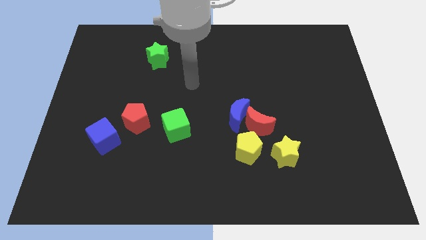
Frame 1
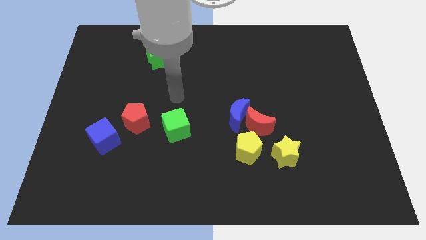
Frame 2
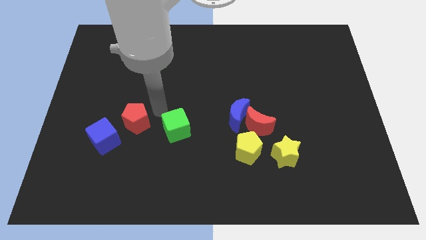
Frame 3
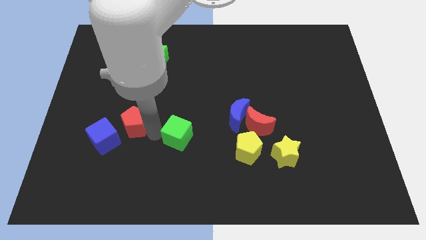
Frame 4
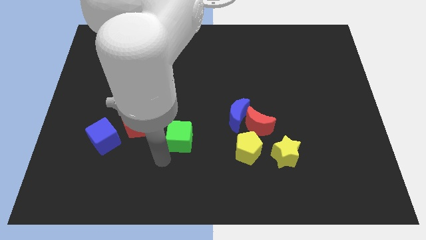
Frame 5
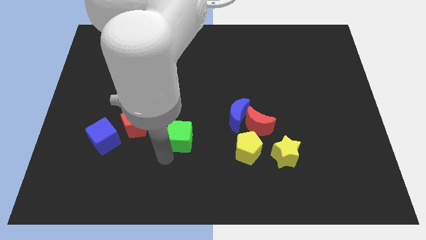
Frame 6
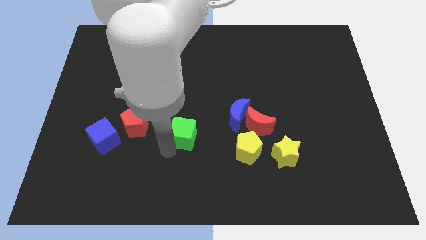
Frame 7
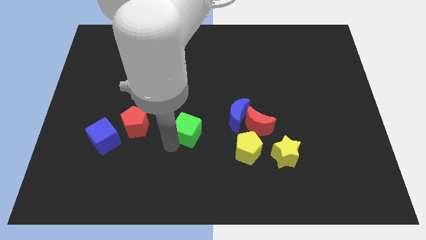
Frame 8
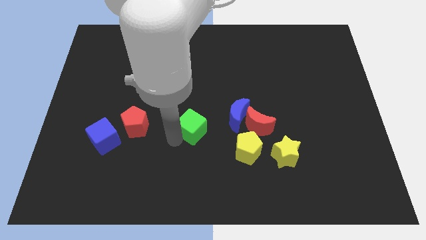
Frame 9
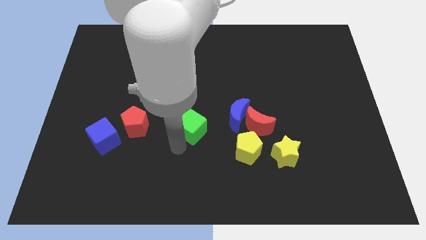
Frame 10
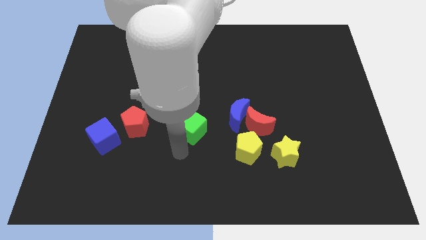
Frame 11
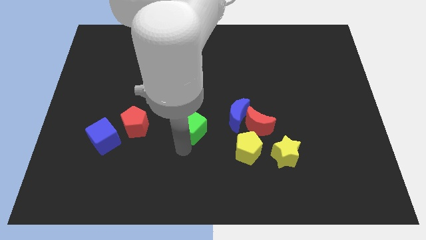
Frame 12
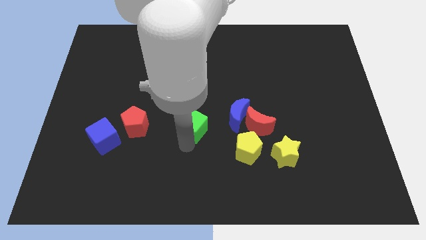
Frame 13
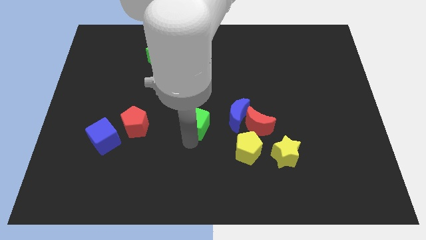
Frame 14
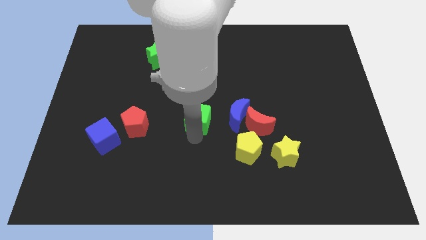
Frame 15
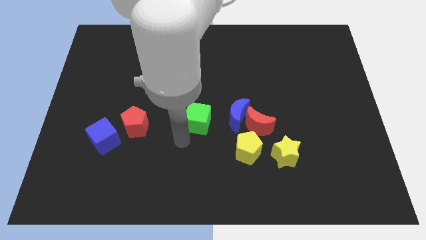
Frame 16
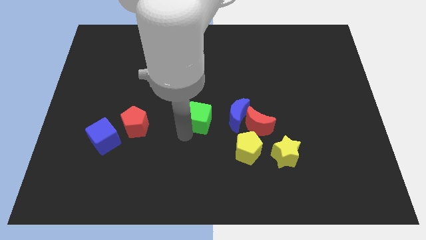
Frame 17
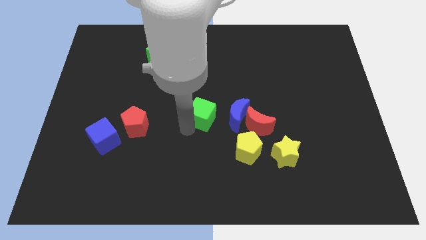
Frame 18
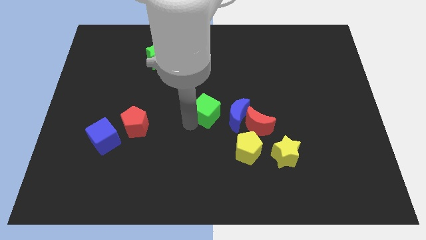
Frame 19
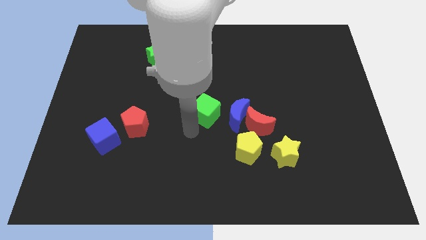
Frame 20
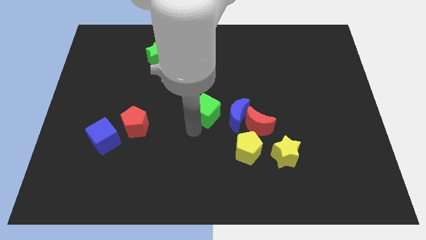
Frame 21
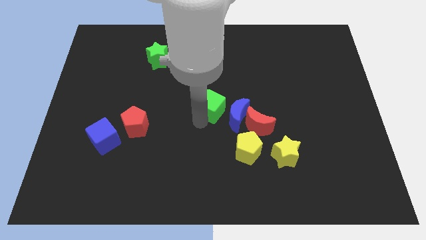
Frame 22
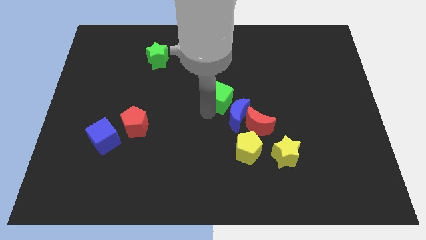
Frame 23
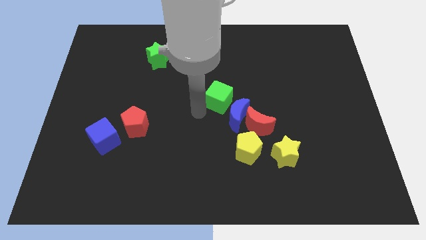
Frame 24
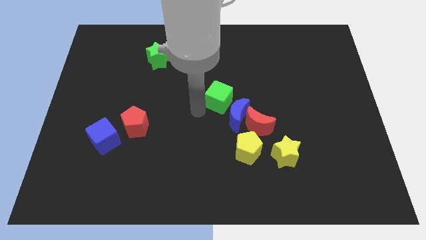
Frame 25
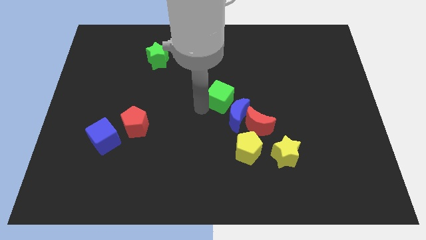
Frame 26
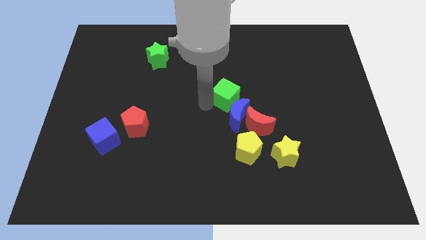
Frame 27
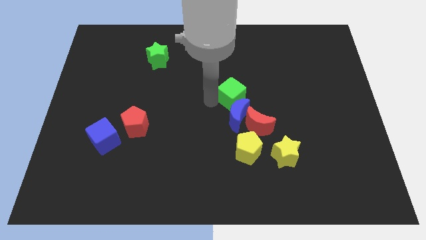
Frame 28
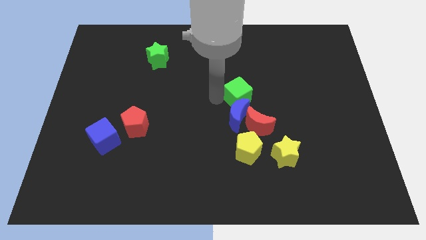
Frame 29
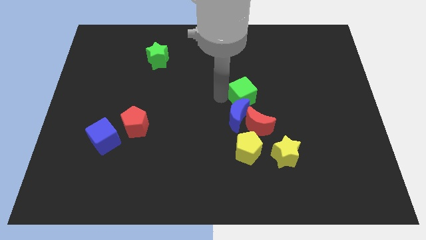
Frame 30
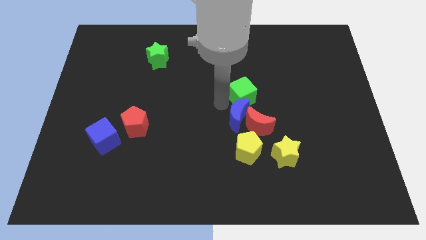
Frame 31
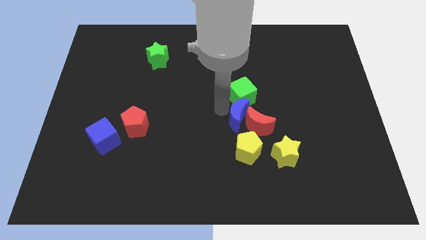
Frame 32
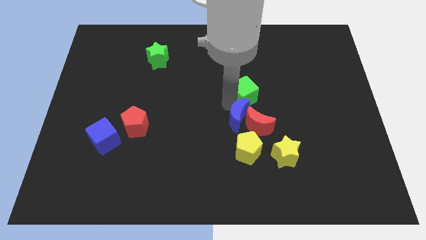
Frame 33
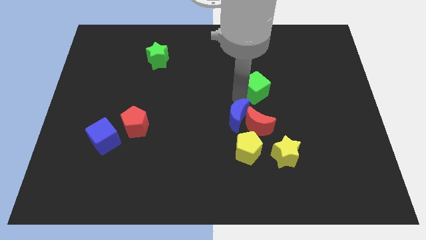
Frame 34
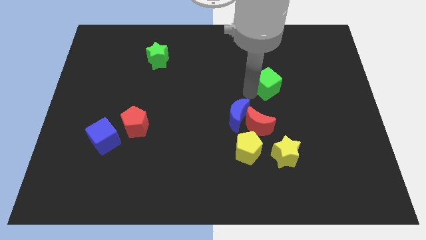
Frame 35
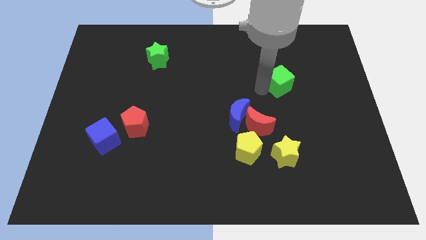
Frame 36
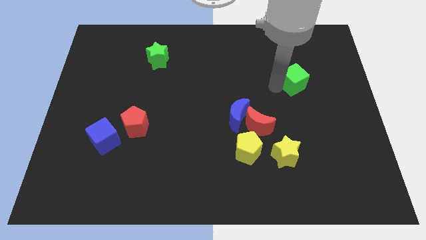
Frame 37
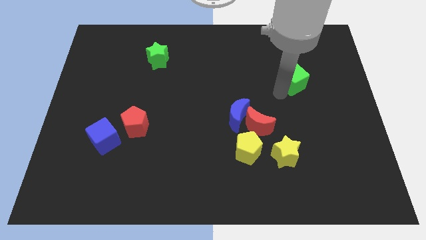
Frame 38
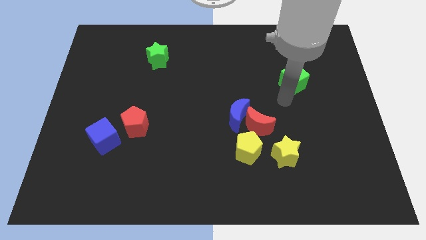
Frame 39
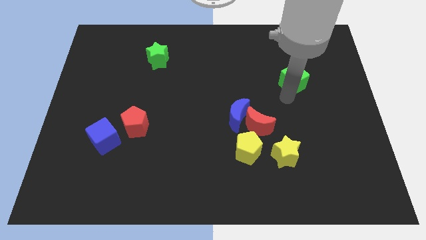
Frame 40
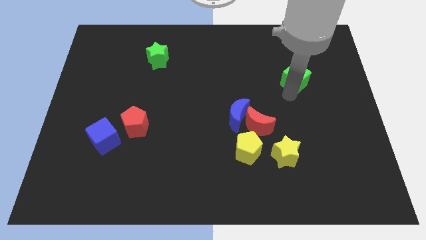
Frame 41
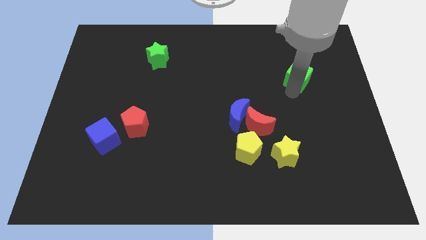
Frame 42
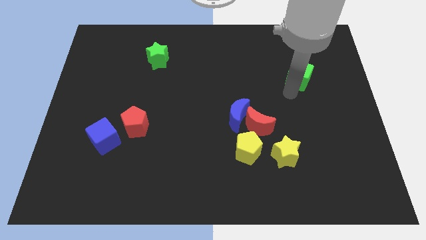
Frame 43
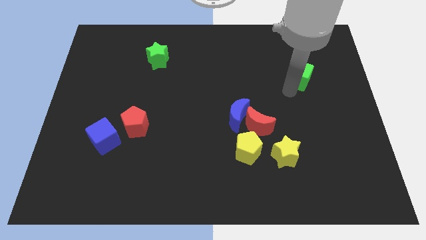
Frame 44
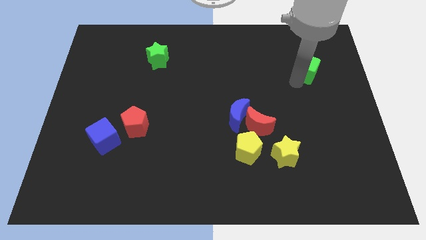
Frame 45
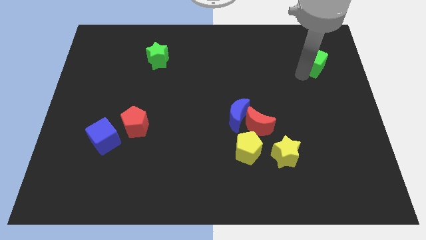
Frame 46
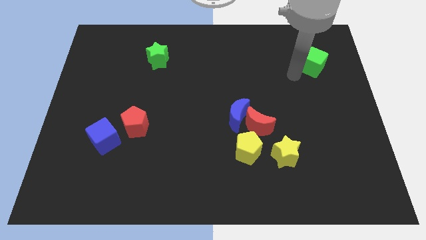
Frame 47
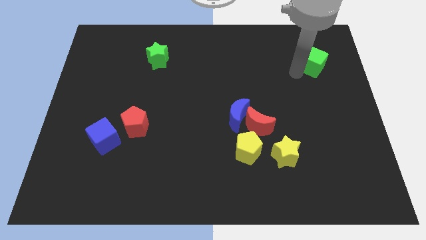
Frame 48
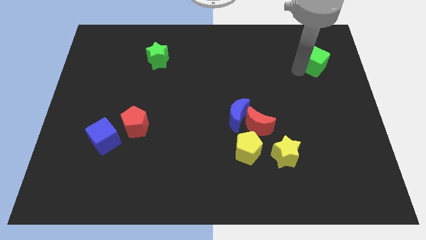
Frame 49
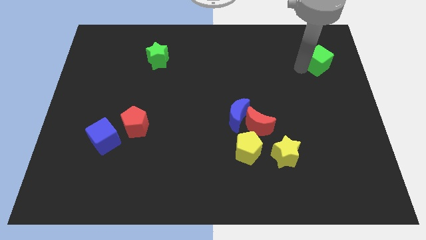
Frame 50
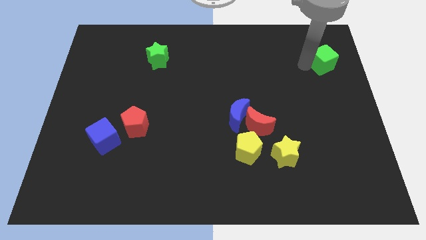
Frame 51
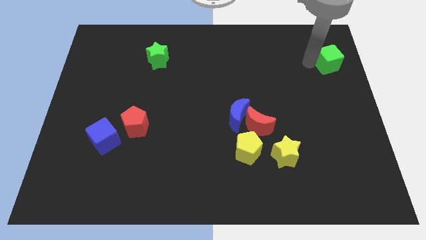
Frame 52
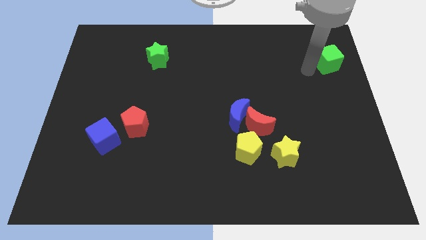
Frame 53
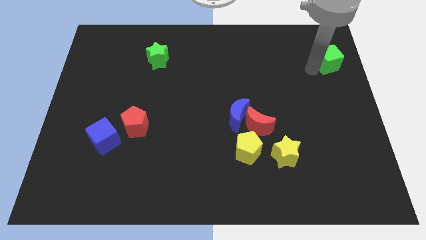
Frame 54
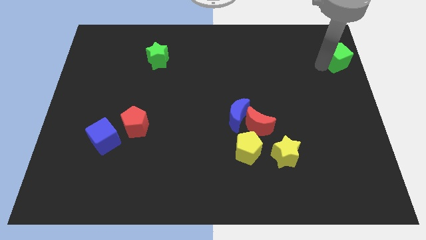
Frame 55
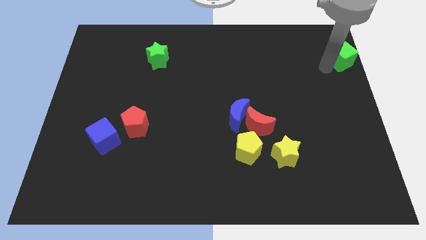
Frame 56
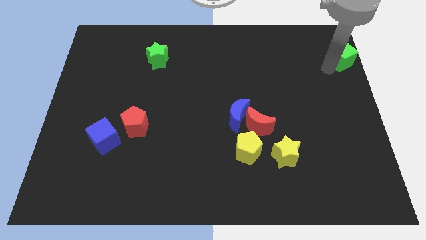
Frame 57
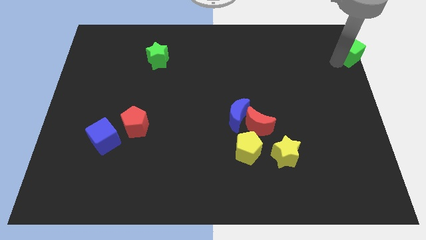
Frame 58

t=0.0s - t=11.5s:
slide the green cube to the upper right corner

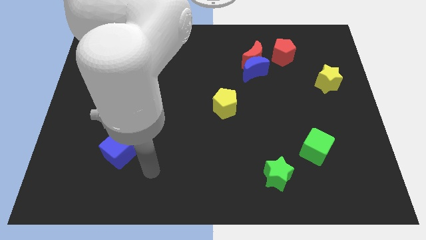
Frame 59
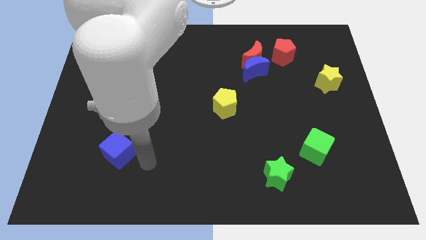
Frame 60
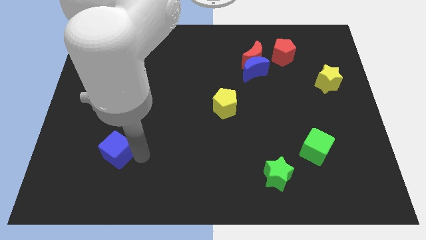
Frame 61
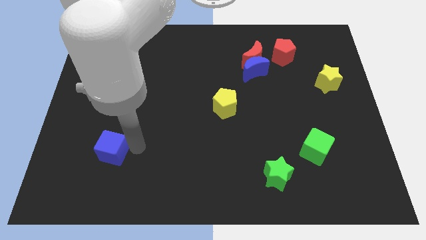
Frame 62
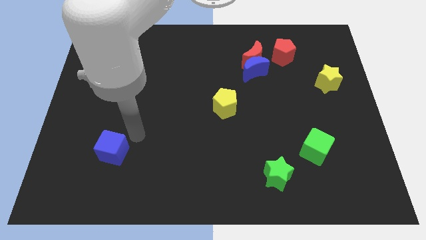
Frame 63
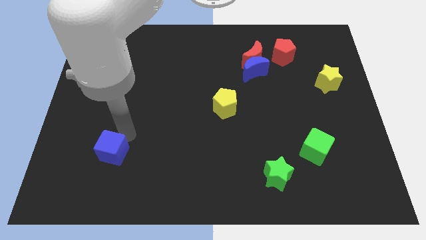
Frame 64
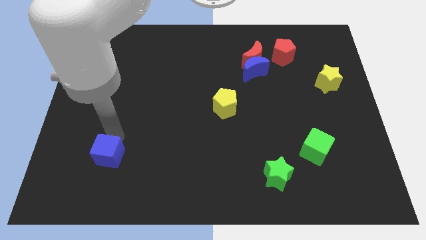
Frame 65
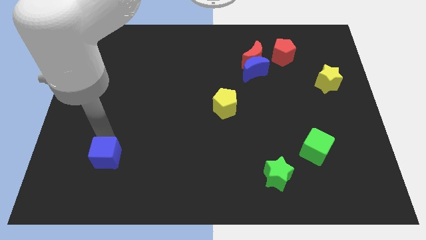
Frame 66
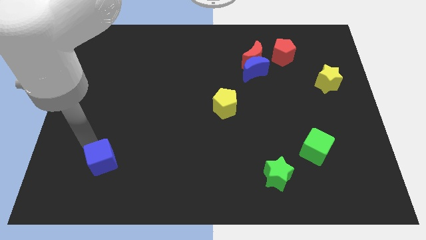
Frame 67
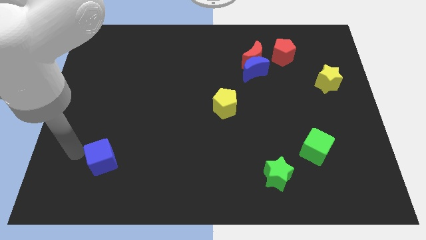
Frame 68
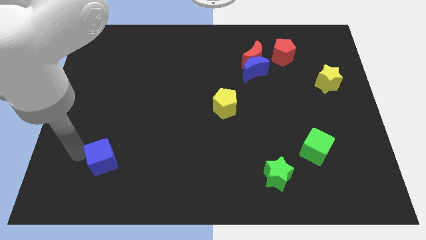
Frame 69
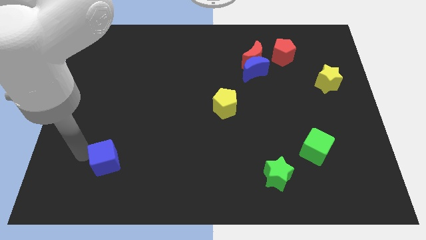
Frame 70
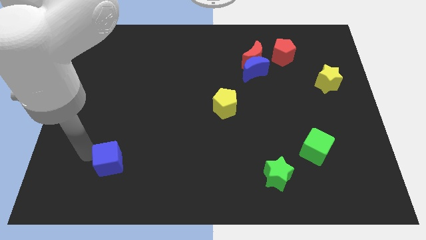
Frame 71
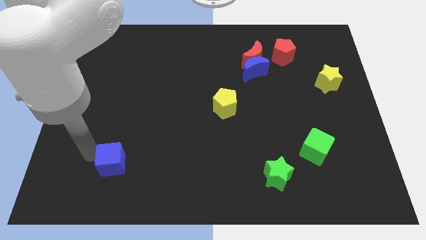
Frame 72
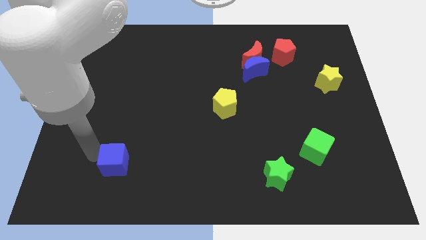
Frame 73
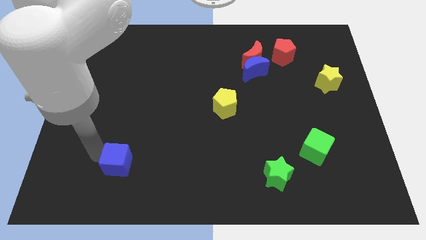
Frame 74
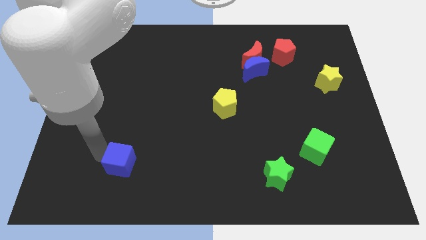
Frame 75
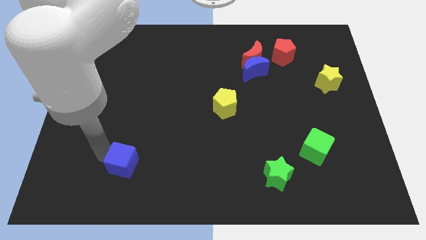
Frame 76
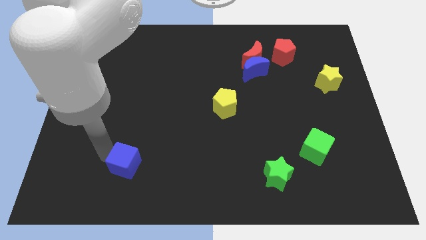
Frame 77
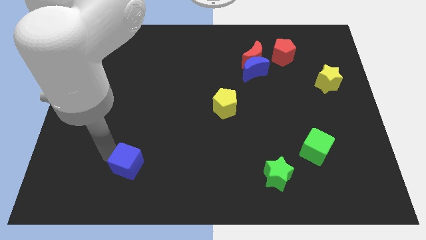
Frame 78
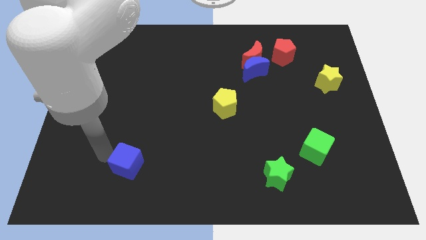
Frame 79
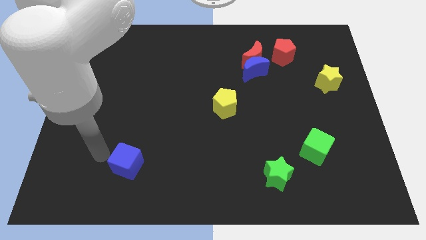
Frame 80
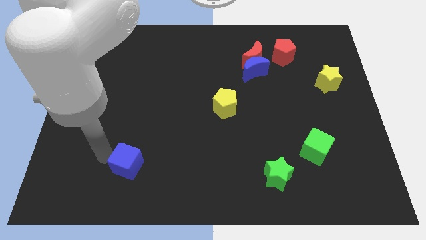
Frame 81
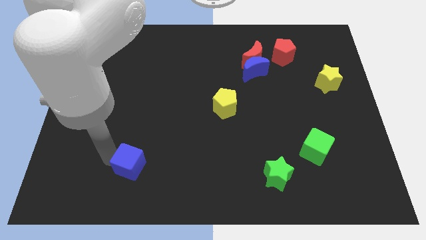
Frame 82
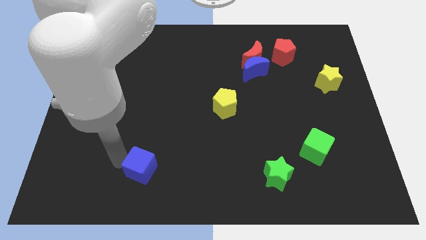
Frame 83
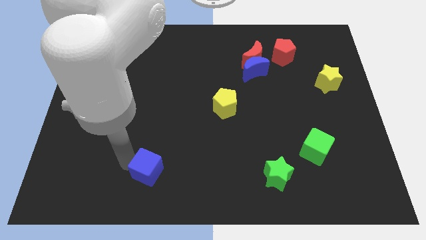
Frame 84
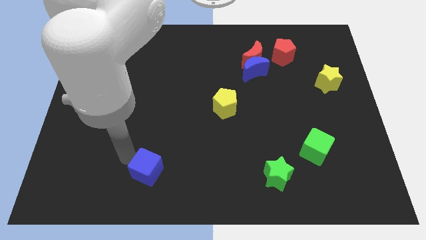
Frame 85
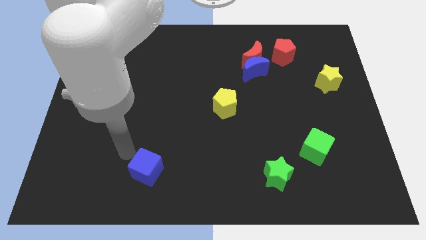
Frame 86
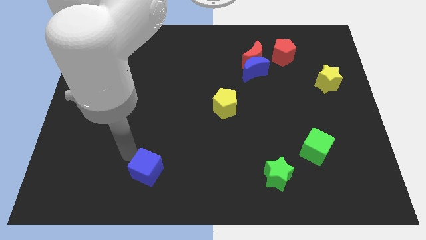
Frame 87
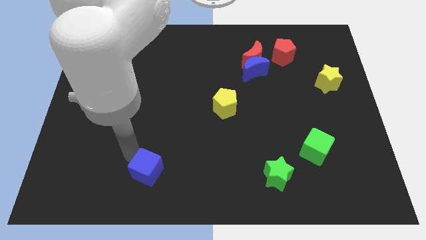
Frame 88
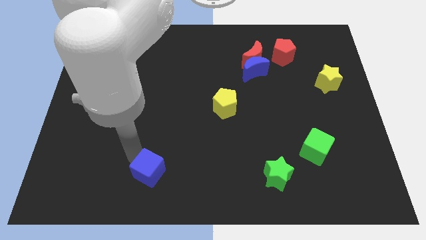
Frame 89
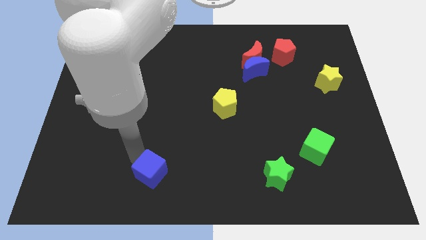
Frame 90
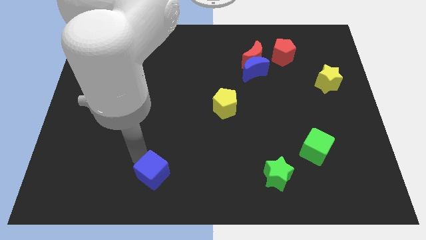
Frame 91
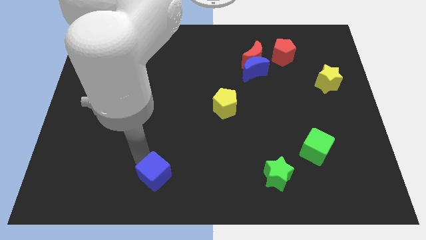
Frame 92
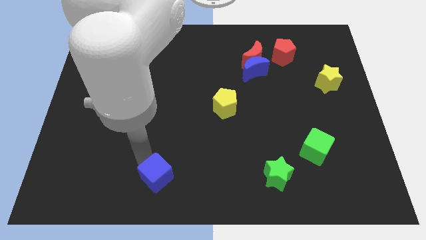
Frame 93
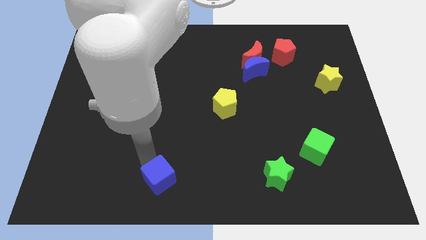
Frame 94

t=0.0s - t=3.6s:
move the blue cube to the bottom side
